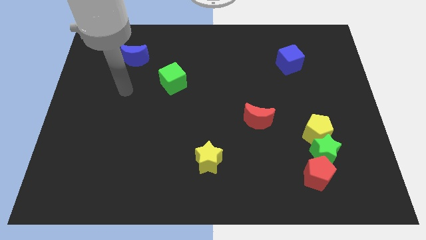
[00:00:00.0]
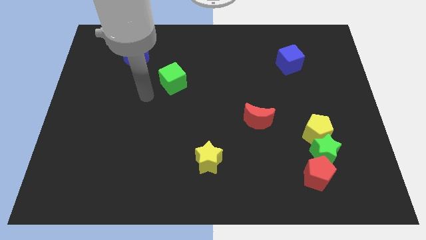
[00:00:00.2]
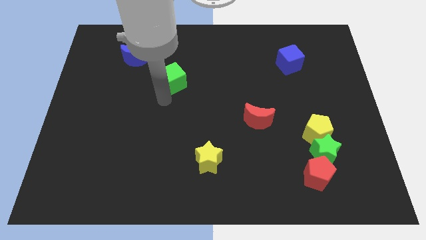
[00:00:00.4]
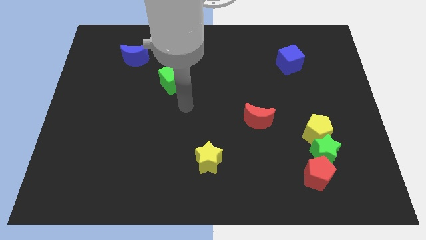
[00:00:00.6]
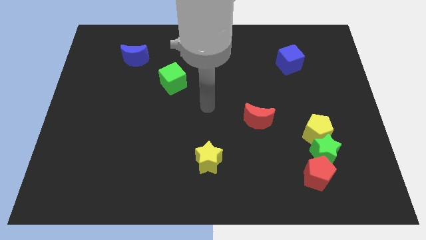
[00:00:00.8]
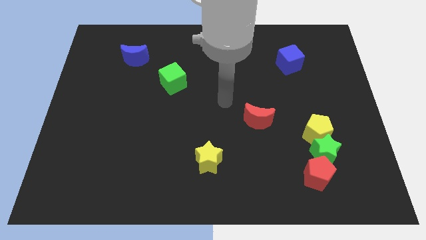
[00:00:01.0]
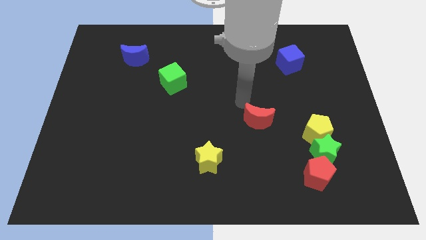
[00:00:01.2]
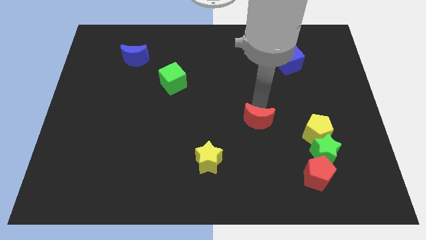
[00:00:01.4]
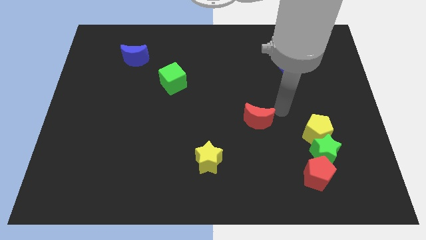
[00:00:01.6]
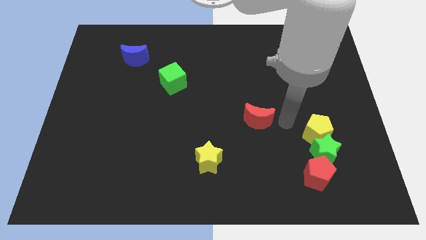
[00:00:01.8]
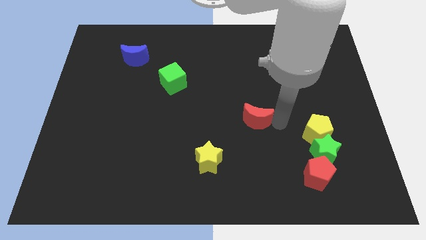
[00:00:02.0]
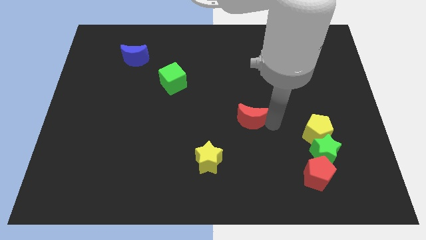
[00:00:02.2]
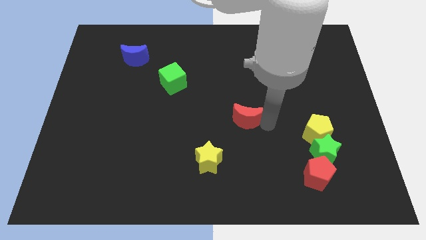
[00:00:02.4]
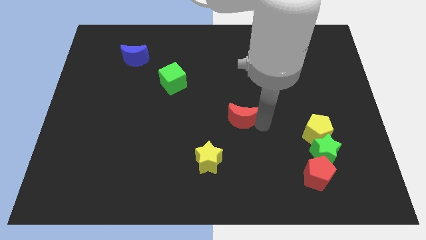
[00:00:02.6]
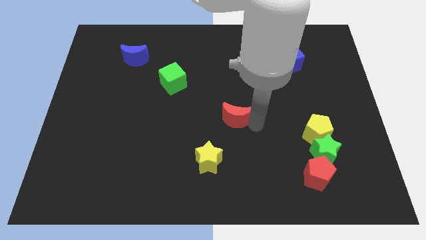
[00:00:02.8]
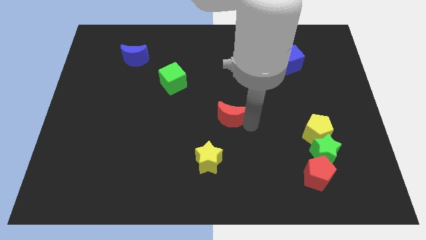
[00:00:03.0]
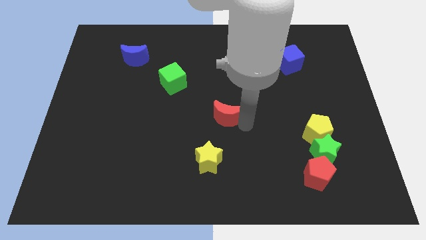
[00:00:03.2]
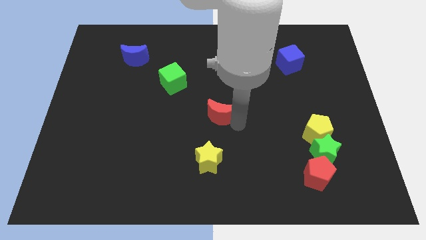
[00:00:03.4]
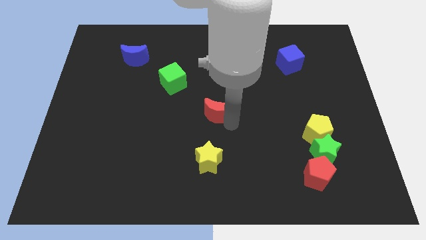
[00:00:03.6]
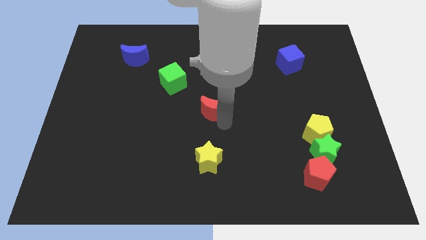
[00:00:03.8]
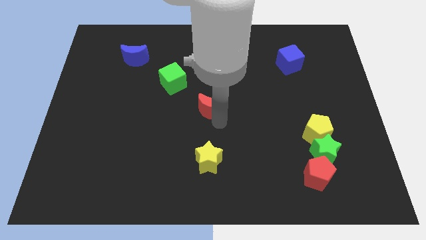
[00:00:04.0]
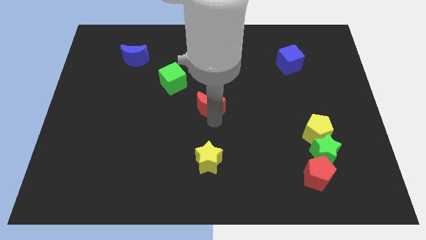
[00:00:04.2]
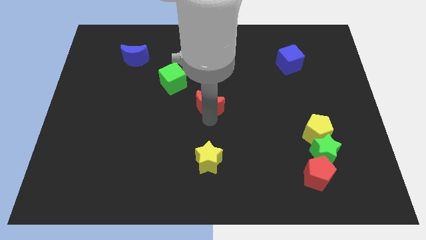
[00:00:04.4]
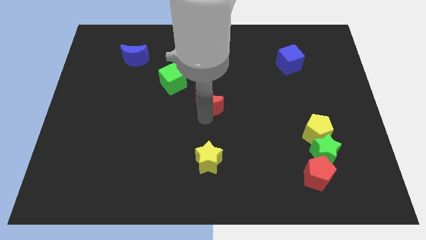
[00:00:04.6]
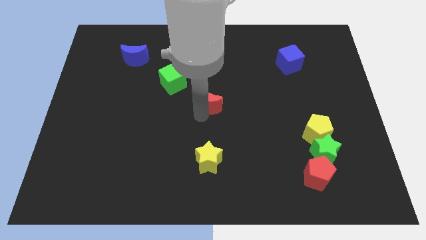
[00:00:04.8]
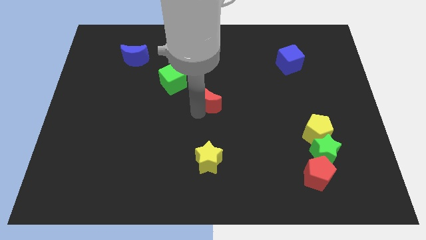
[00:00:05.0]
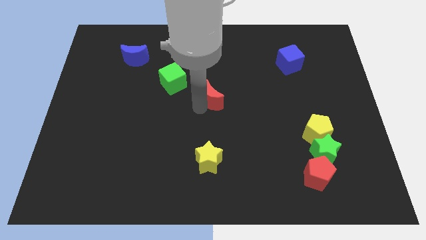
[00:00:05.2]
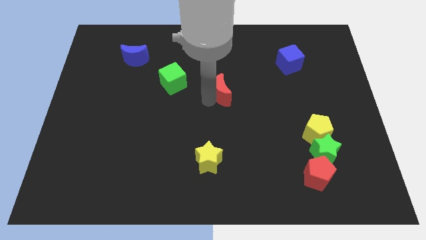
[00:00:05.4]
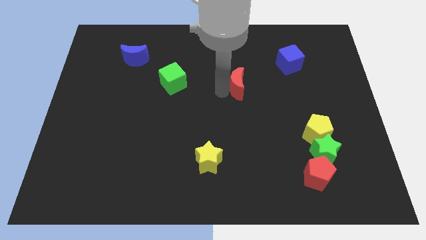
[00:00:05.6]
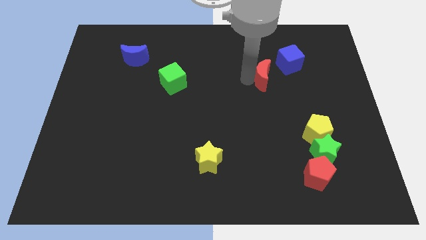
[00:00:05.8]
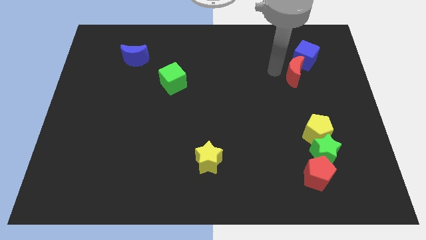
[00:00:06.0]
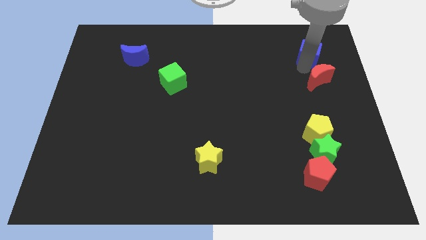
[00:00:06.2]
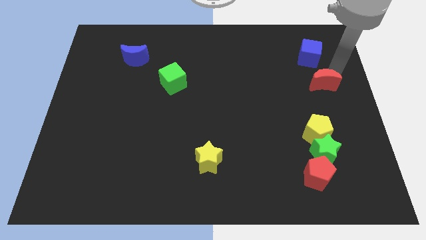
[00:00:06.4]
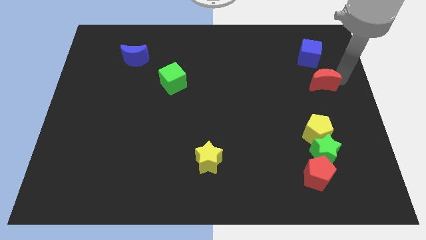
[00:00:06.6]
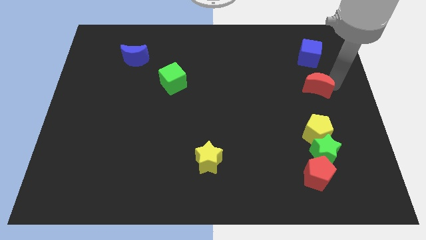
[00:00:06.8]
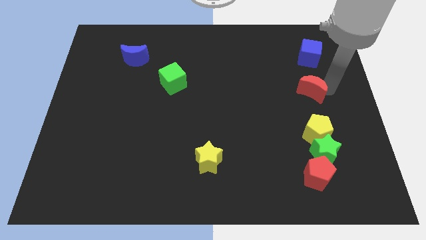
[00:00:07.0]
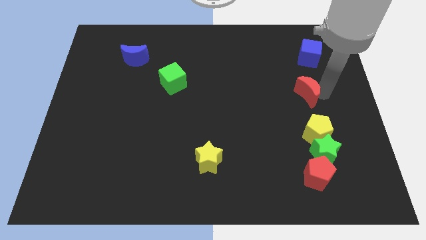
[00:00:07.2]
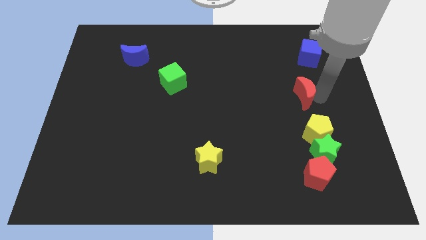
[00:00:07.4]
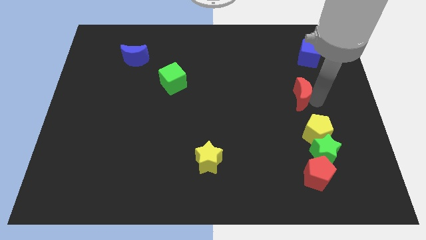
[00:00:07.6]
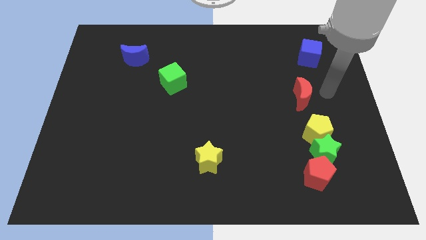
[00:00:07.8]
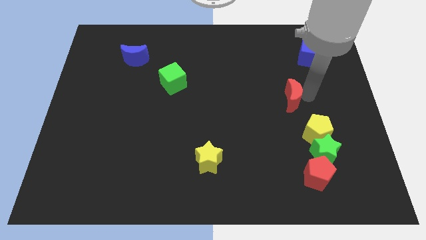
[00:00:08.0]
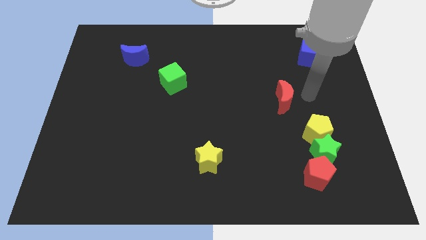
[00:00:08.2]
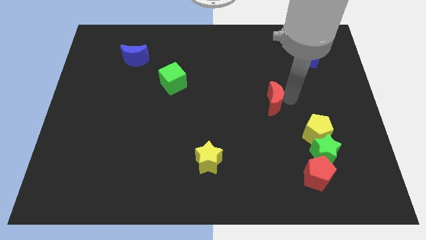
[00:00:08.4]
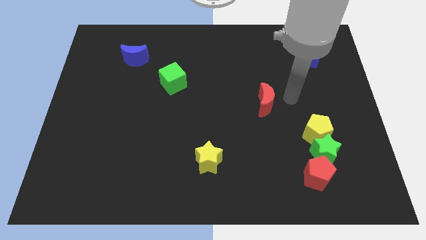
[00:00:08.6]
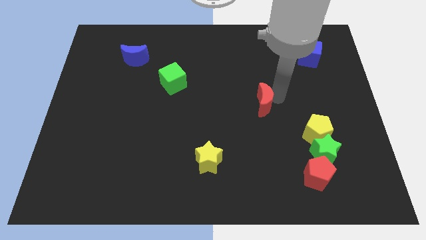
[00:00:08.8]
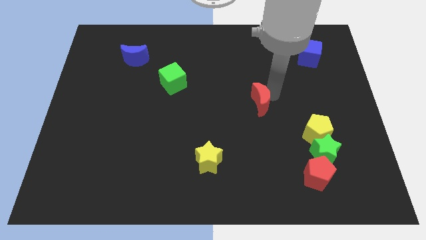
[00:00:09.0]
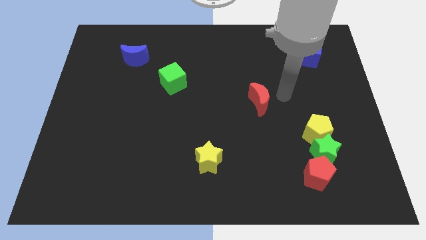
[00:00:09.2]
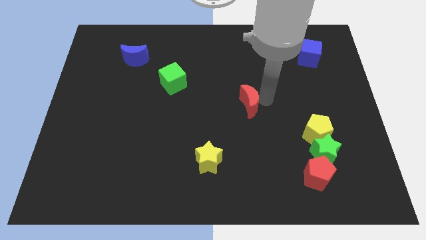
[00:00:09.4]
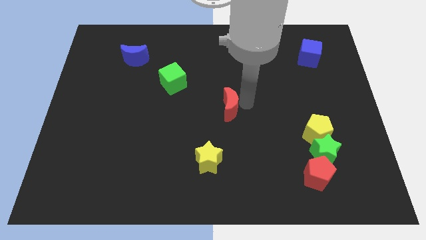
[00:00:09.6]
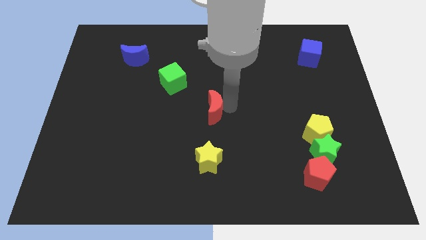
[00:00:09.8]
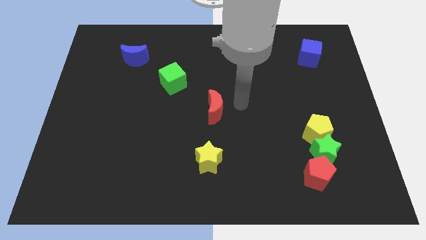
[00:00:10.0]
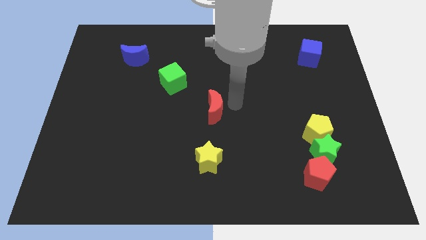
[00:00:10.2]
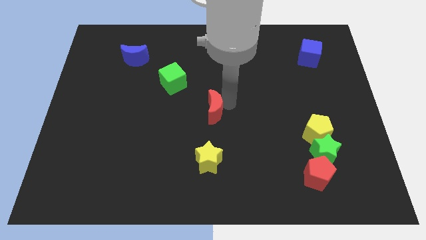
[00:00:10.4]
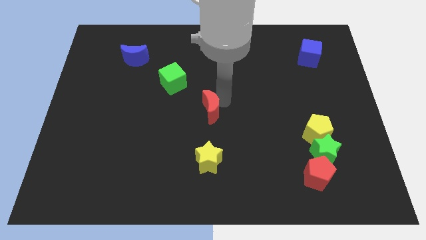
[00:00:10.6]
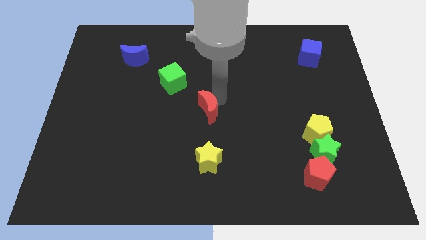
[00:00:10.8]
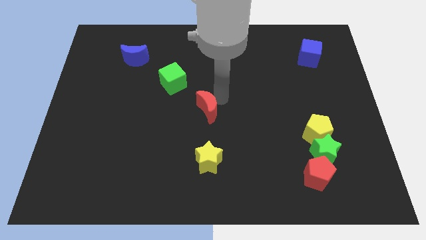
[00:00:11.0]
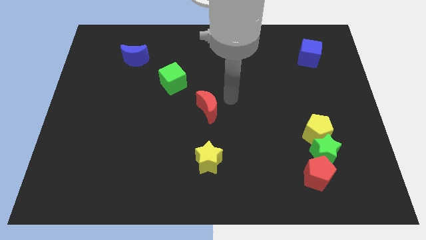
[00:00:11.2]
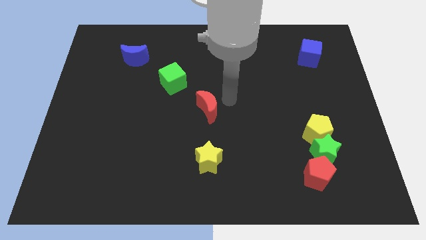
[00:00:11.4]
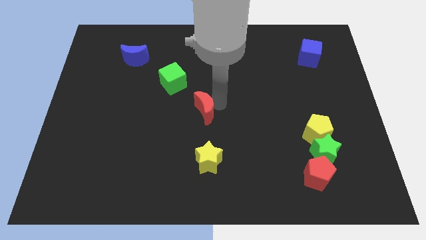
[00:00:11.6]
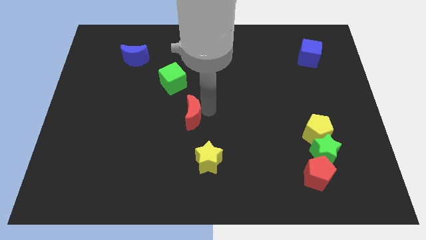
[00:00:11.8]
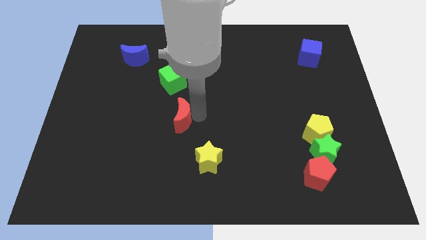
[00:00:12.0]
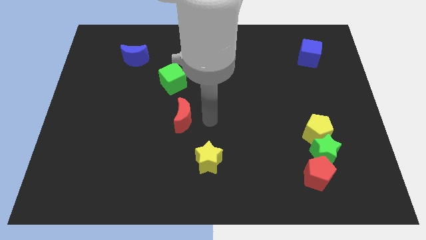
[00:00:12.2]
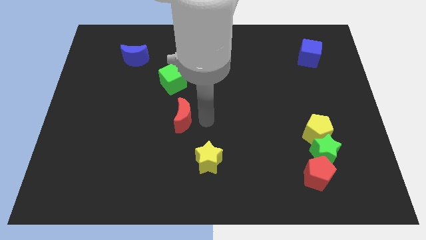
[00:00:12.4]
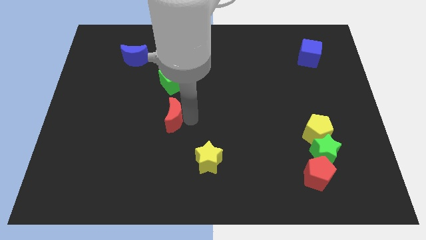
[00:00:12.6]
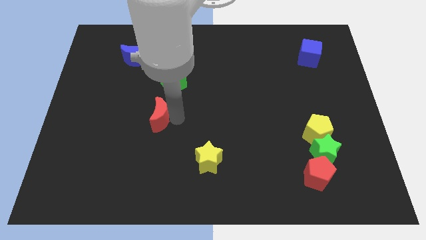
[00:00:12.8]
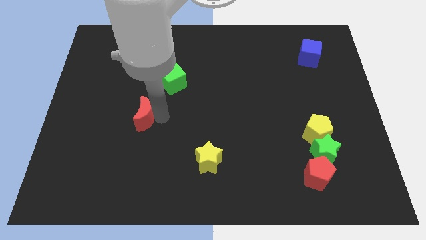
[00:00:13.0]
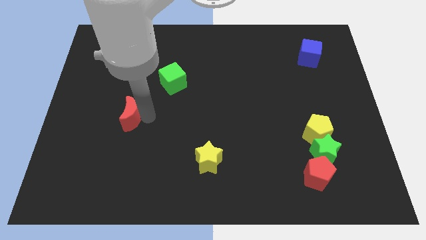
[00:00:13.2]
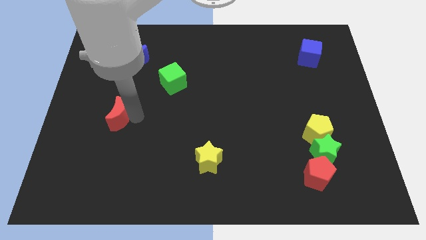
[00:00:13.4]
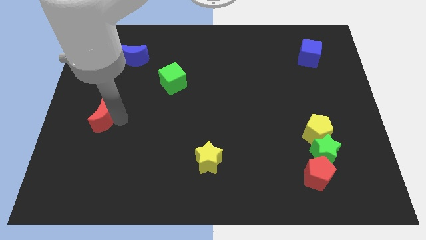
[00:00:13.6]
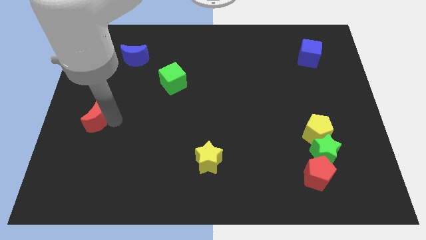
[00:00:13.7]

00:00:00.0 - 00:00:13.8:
move the red moon to the left side
